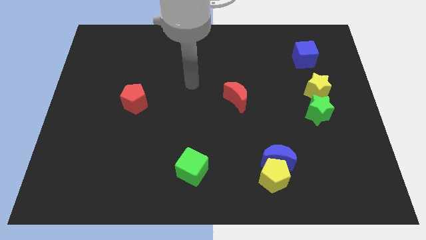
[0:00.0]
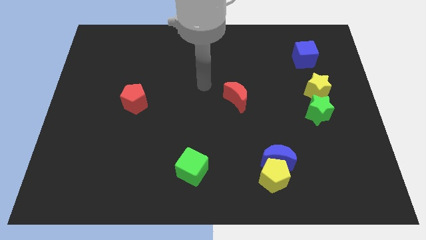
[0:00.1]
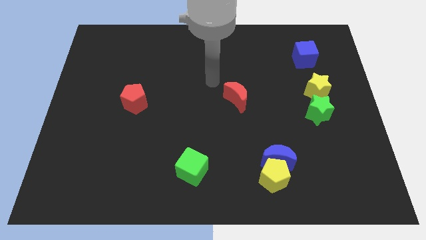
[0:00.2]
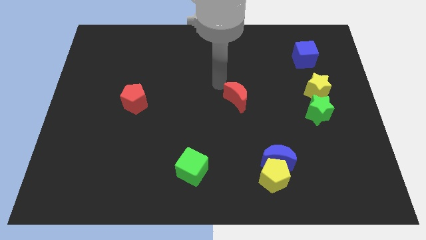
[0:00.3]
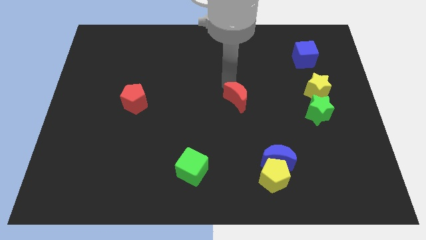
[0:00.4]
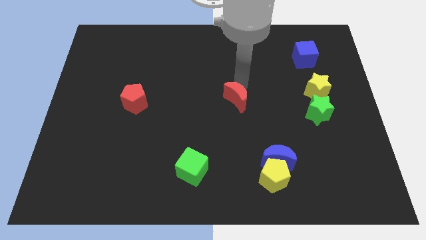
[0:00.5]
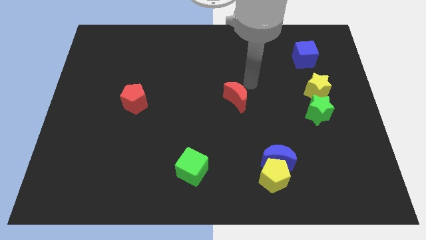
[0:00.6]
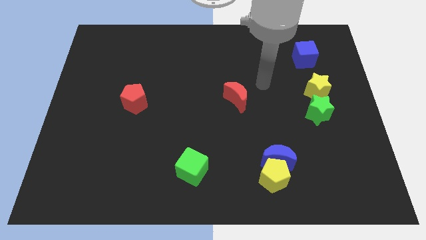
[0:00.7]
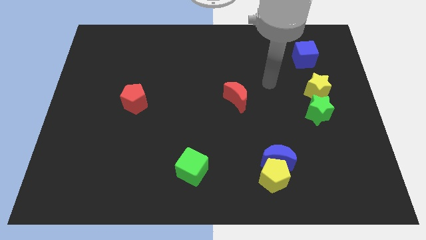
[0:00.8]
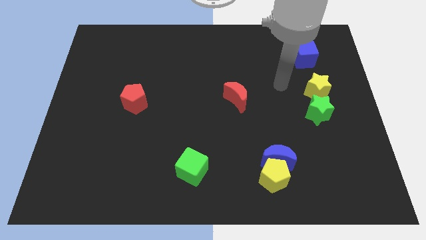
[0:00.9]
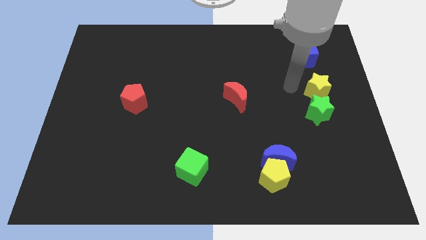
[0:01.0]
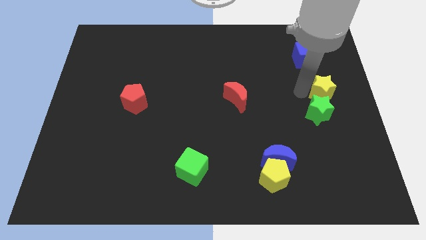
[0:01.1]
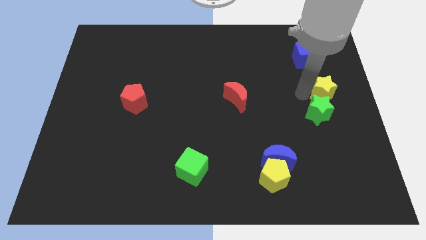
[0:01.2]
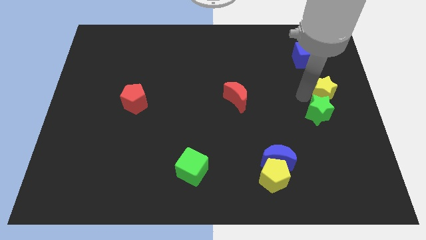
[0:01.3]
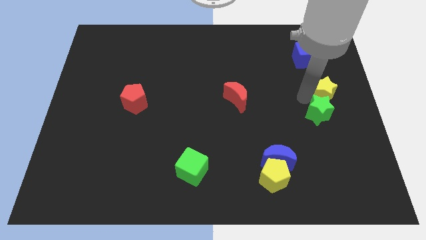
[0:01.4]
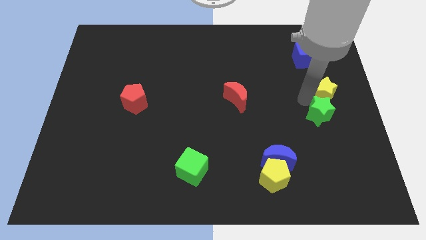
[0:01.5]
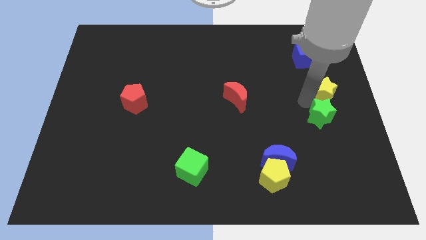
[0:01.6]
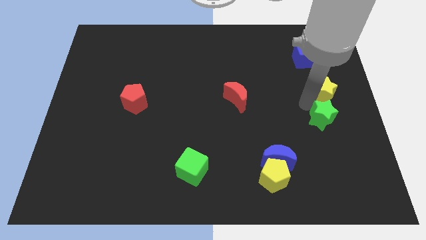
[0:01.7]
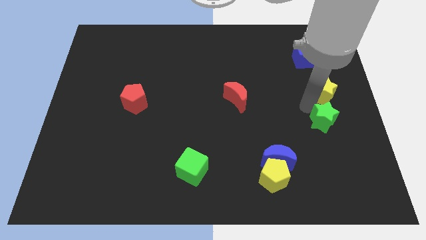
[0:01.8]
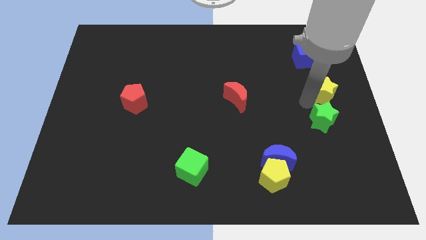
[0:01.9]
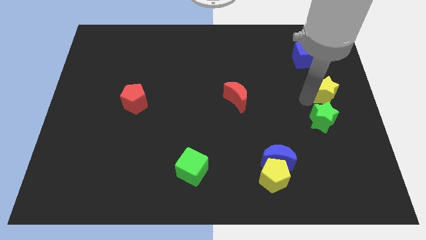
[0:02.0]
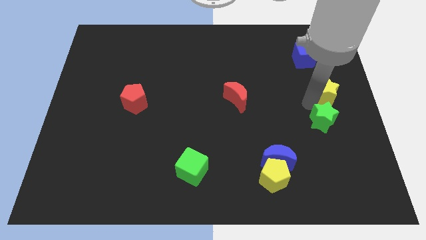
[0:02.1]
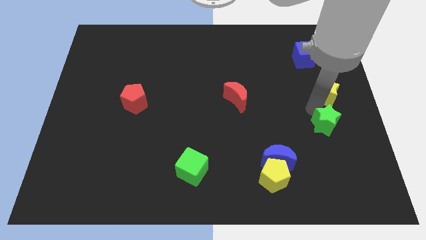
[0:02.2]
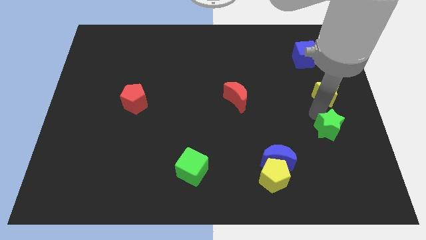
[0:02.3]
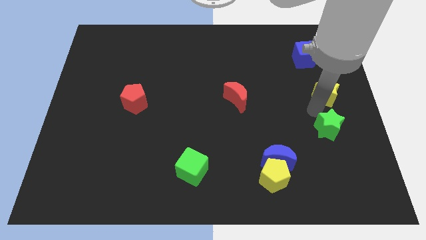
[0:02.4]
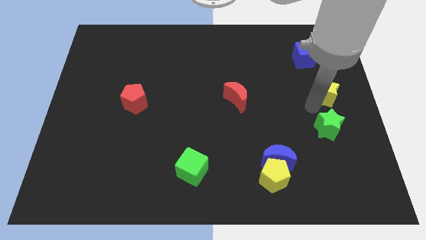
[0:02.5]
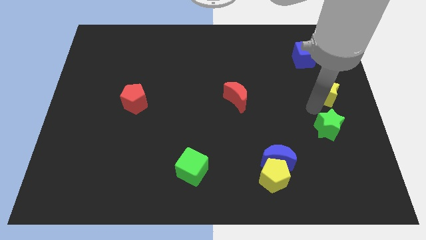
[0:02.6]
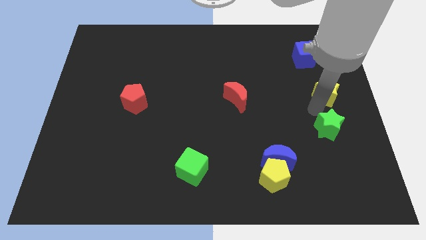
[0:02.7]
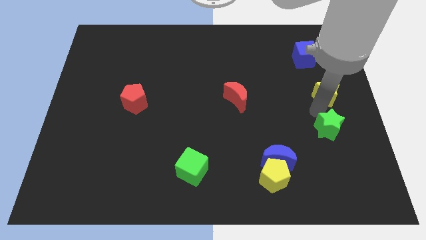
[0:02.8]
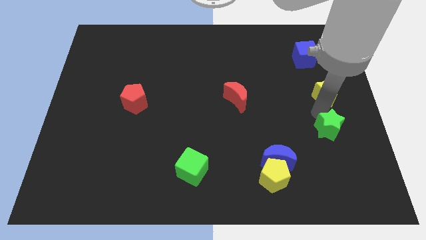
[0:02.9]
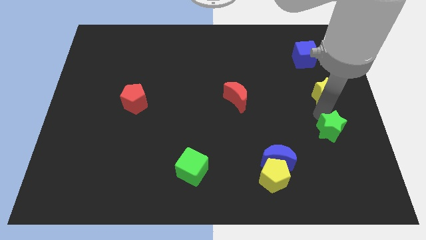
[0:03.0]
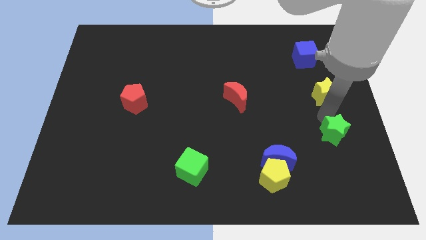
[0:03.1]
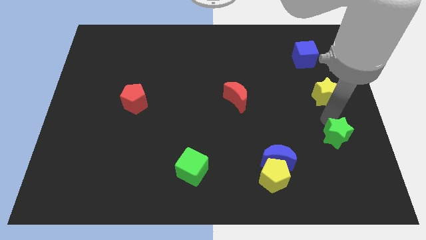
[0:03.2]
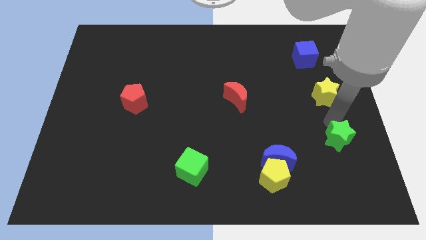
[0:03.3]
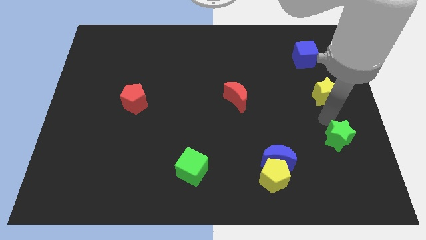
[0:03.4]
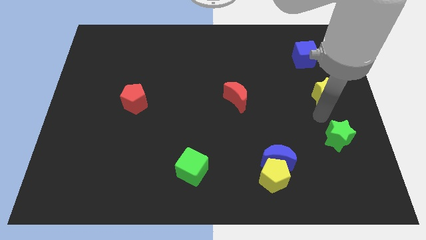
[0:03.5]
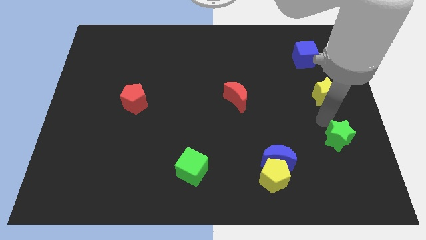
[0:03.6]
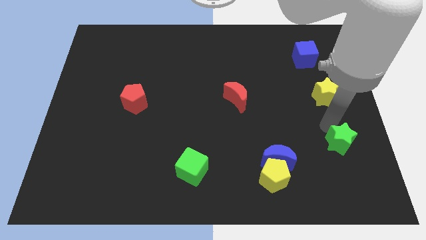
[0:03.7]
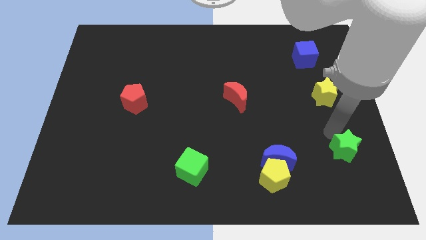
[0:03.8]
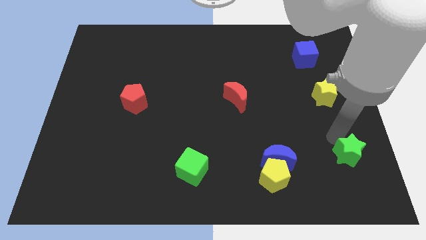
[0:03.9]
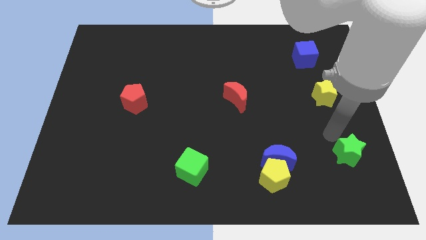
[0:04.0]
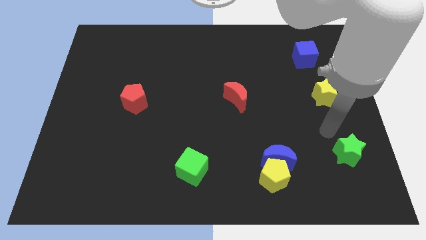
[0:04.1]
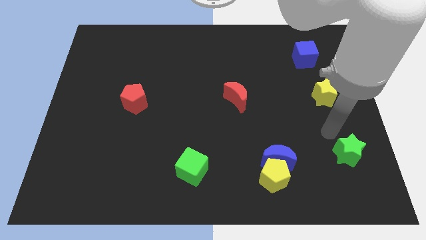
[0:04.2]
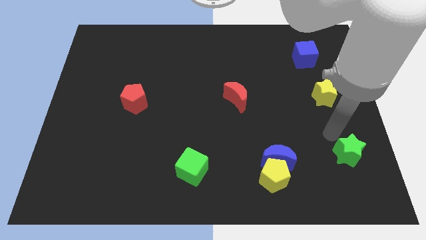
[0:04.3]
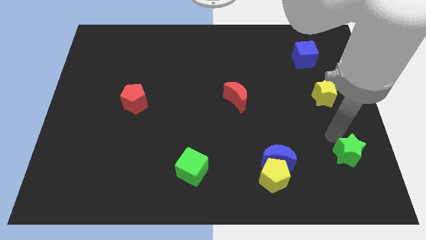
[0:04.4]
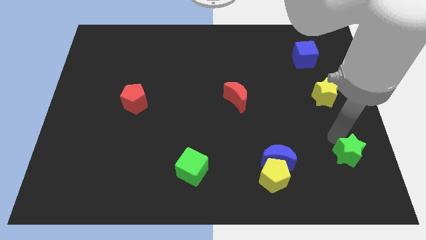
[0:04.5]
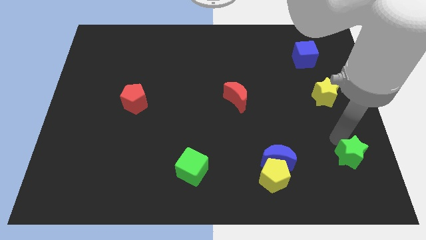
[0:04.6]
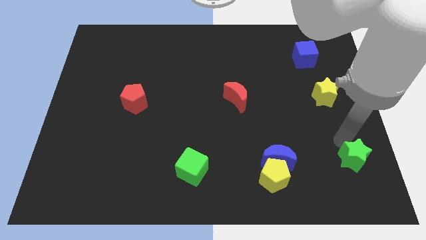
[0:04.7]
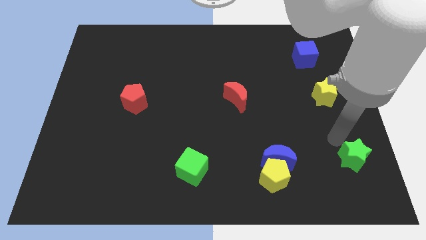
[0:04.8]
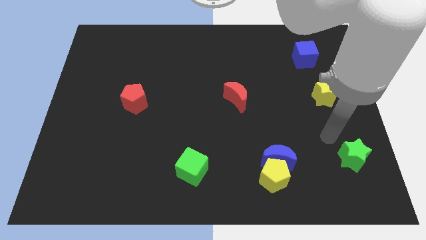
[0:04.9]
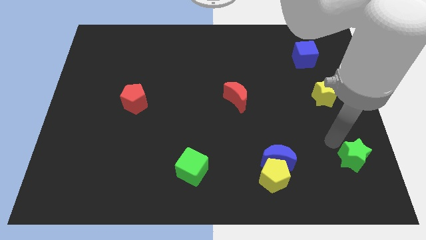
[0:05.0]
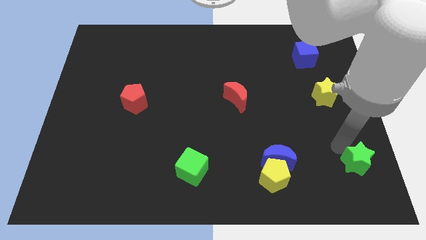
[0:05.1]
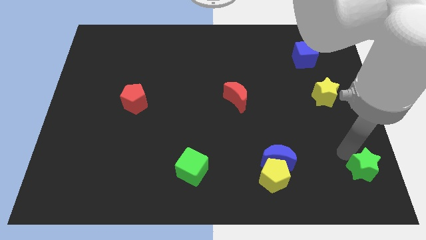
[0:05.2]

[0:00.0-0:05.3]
move the green star to the bottom right

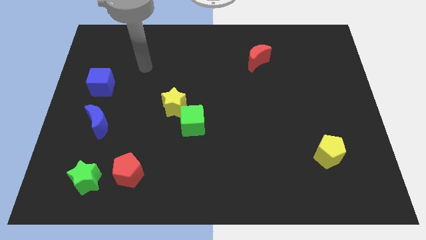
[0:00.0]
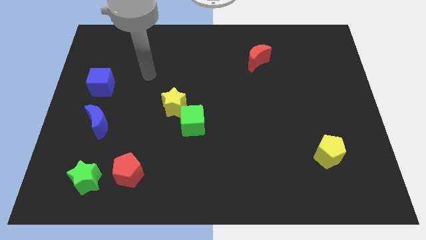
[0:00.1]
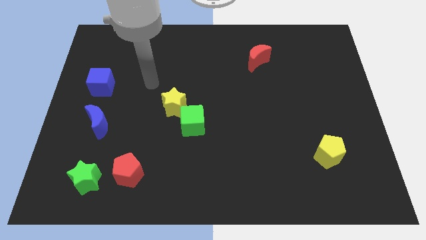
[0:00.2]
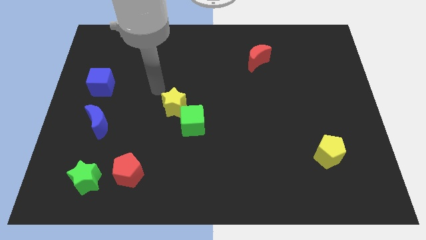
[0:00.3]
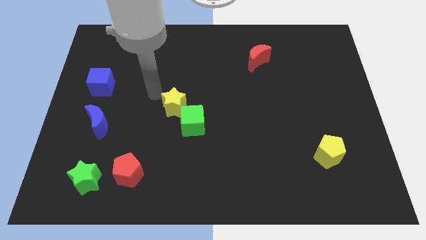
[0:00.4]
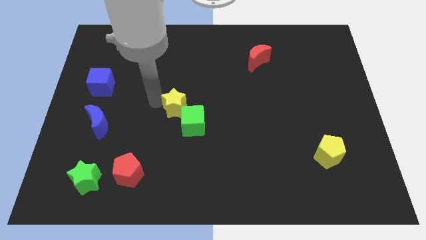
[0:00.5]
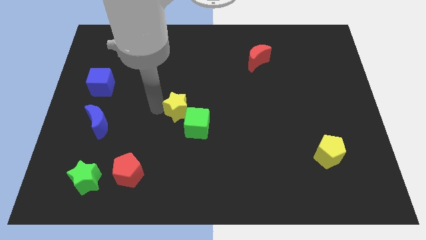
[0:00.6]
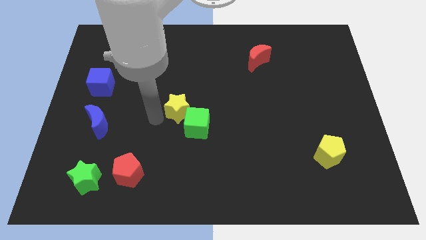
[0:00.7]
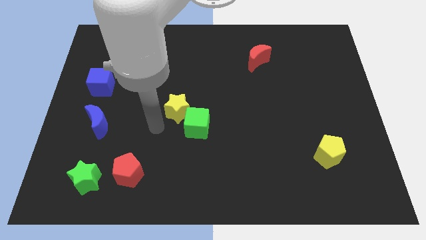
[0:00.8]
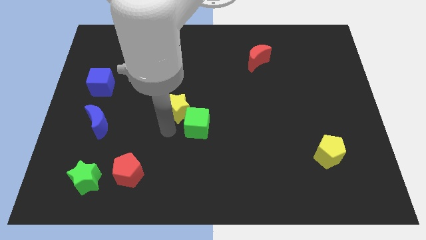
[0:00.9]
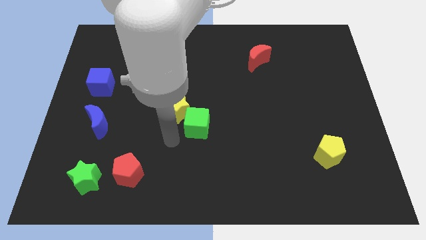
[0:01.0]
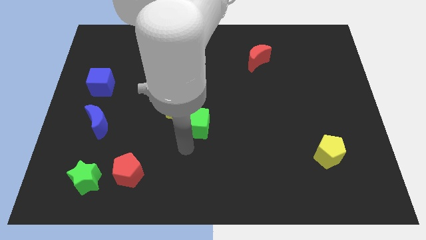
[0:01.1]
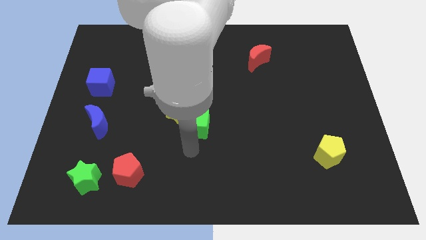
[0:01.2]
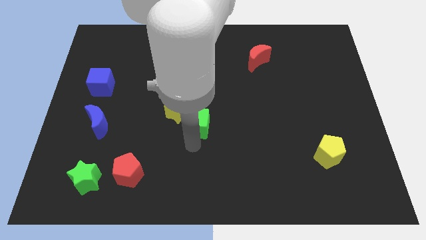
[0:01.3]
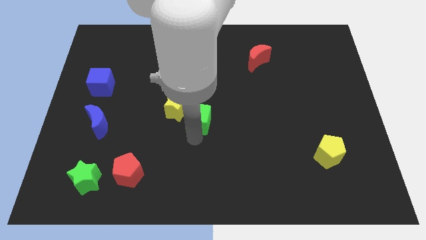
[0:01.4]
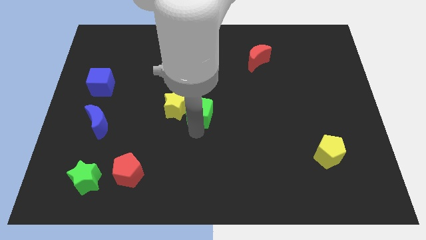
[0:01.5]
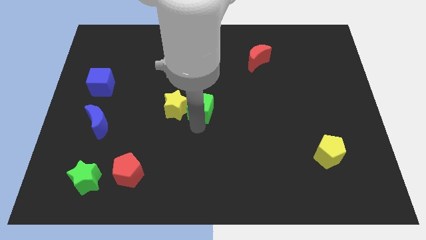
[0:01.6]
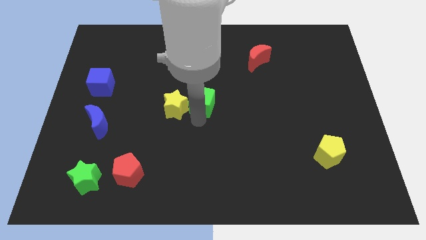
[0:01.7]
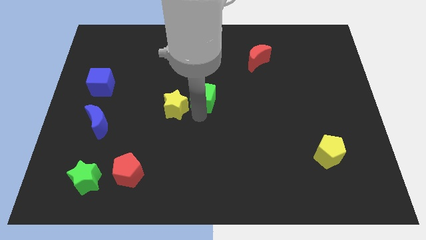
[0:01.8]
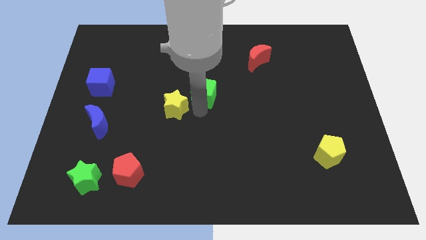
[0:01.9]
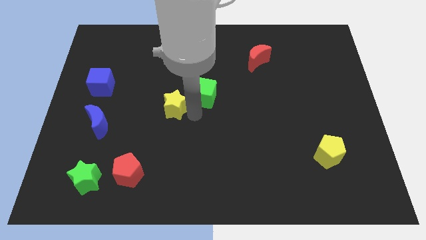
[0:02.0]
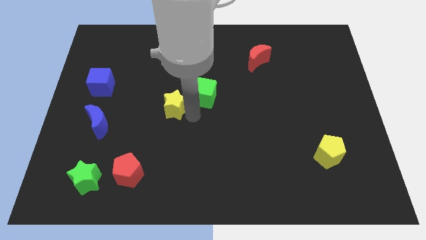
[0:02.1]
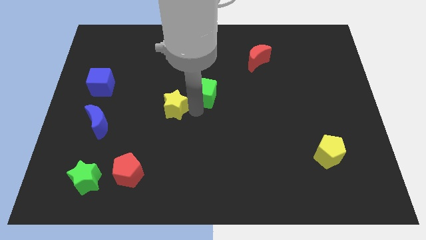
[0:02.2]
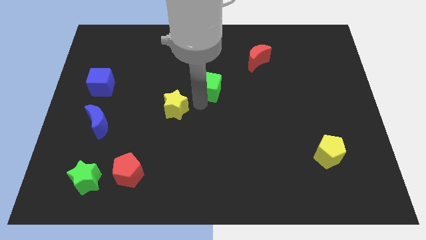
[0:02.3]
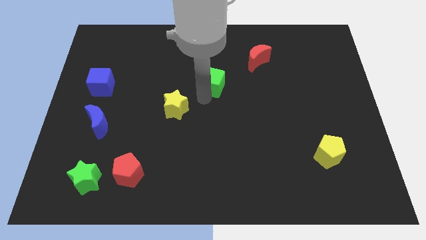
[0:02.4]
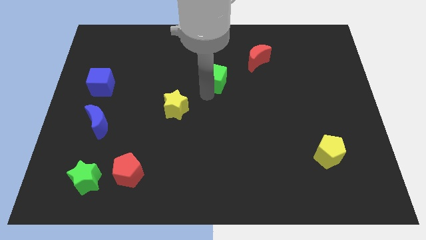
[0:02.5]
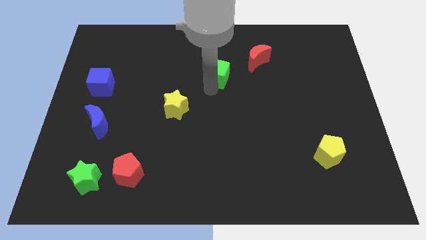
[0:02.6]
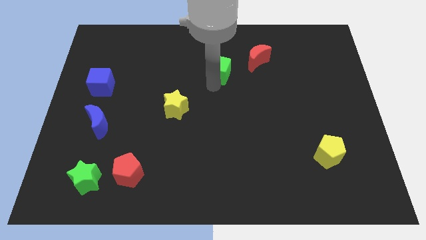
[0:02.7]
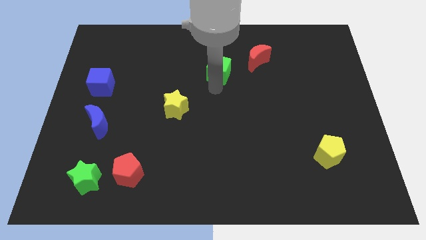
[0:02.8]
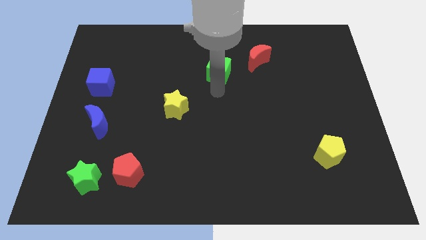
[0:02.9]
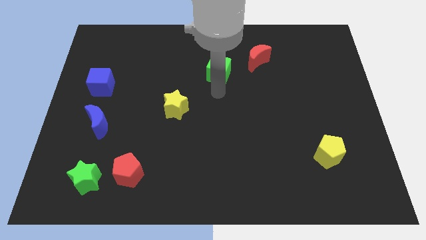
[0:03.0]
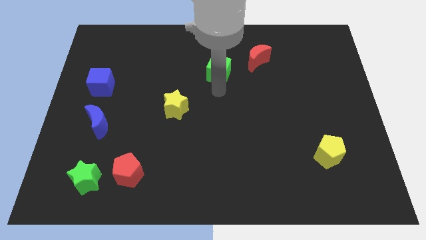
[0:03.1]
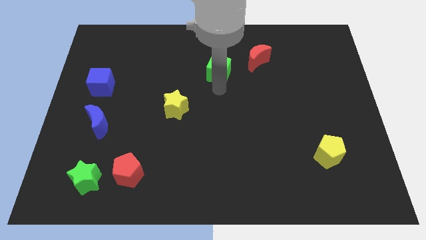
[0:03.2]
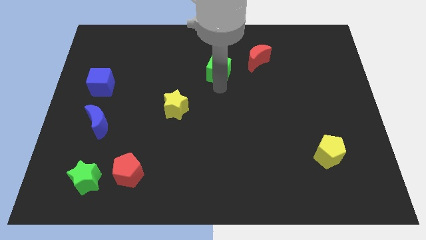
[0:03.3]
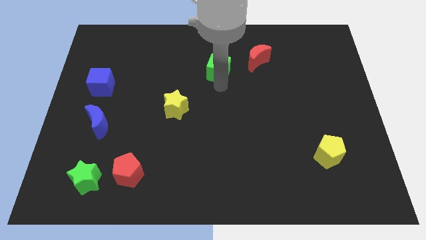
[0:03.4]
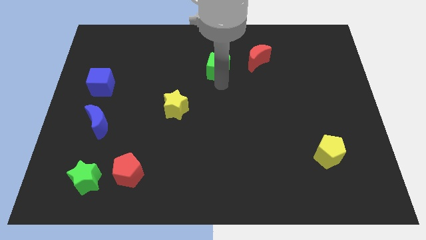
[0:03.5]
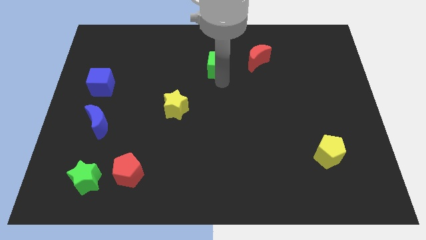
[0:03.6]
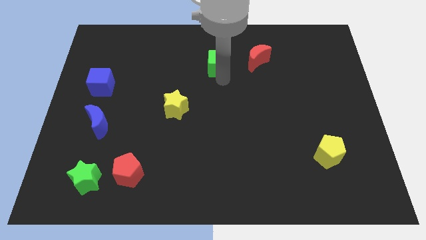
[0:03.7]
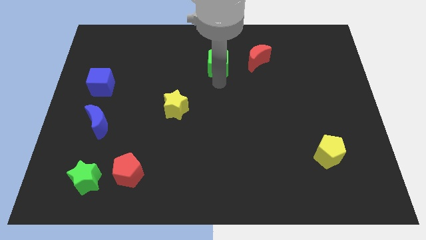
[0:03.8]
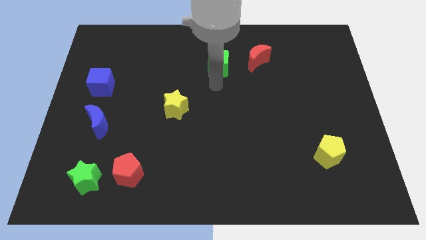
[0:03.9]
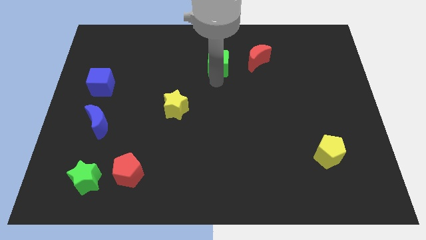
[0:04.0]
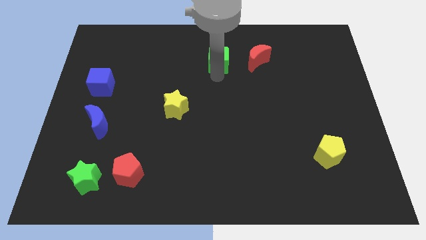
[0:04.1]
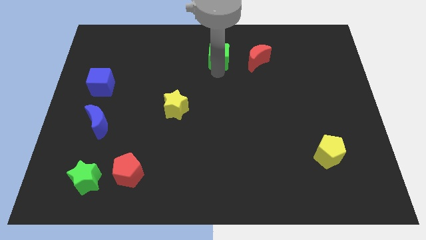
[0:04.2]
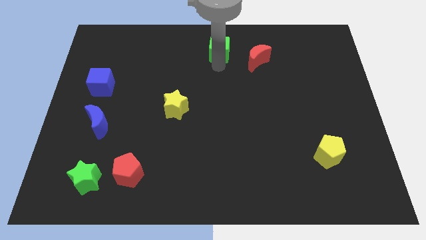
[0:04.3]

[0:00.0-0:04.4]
put the green cube to the towards your base
